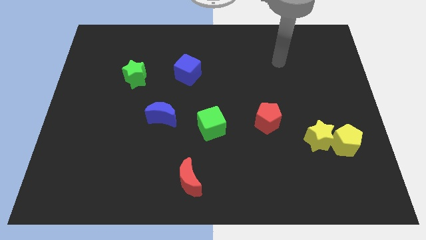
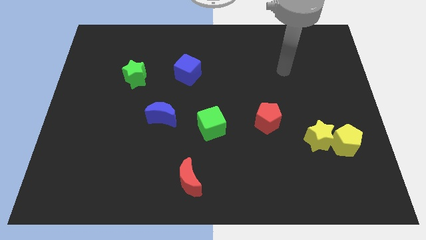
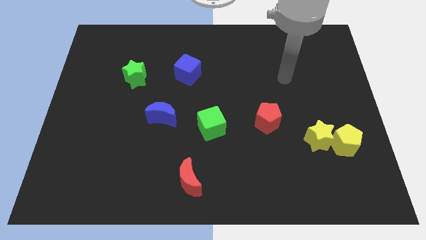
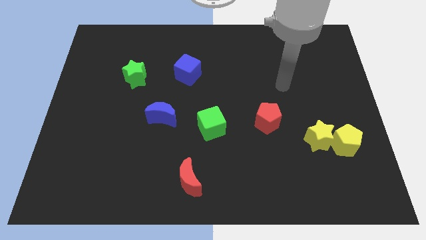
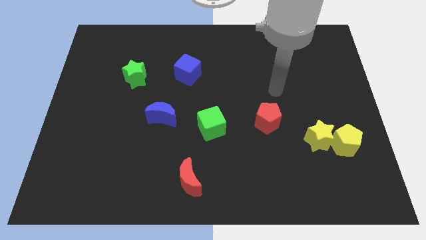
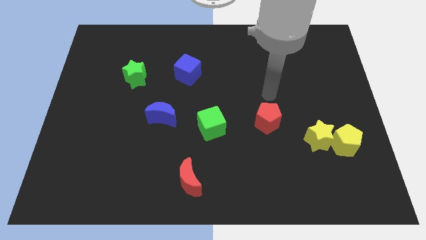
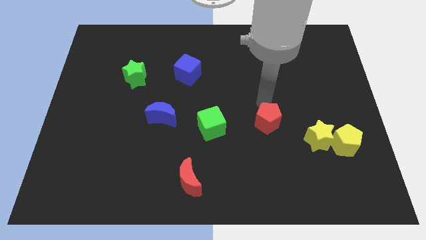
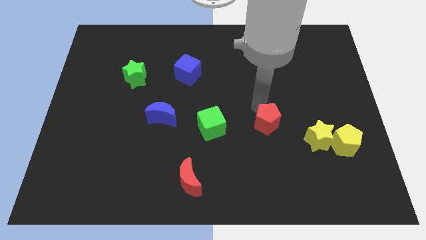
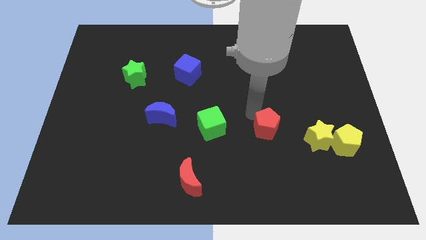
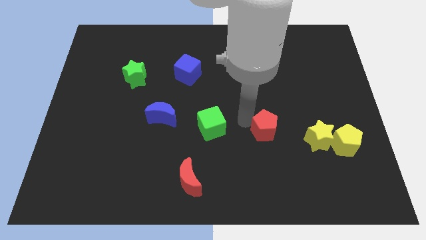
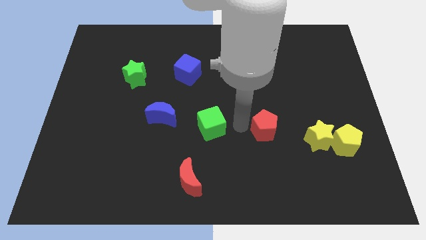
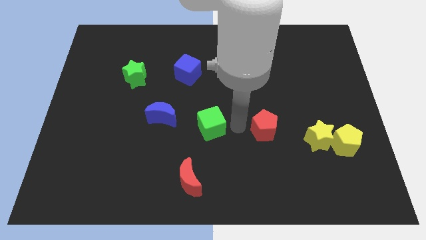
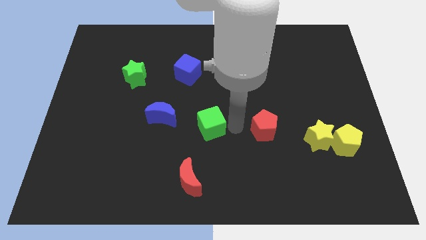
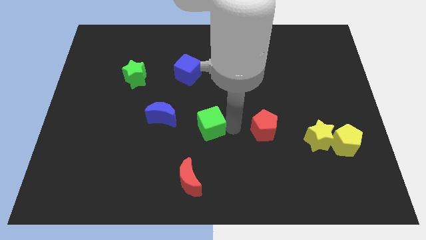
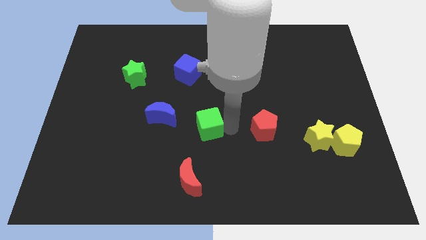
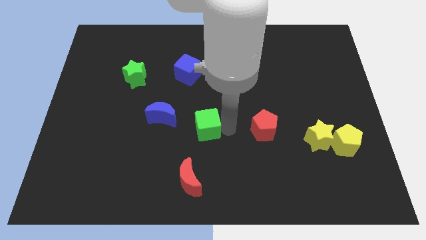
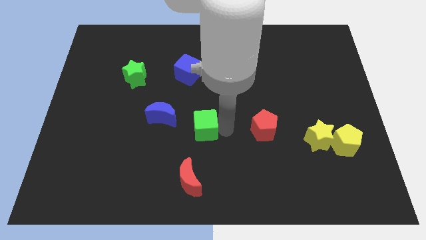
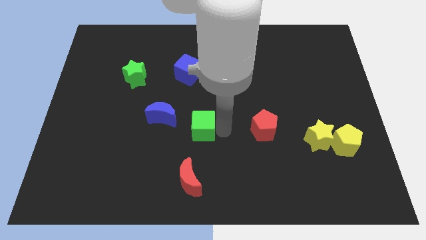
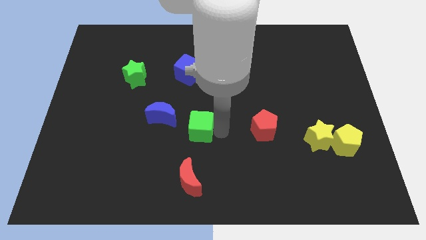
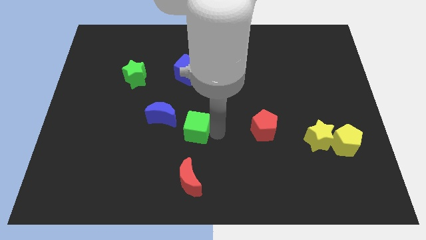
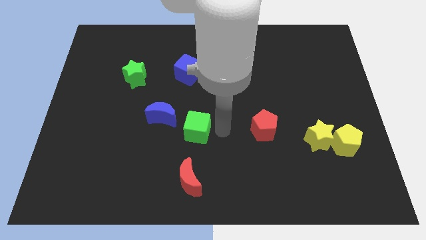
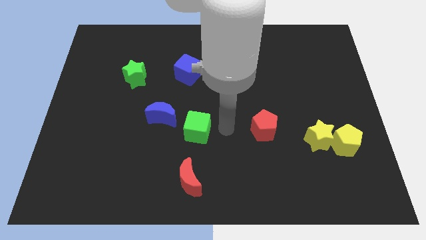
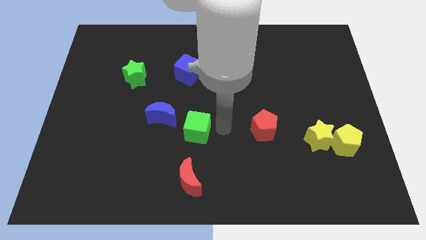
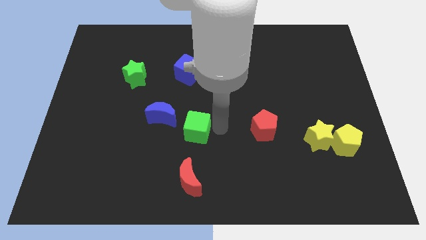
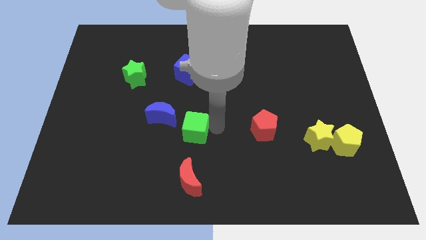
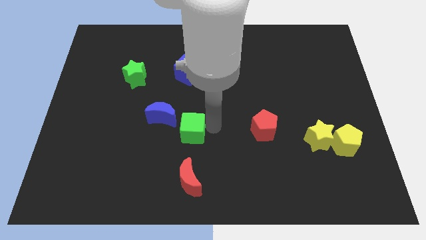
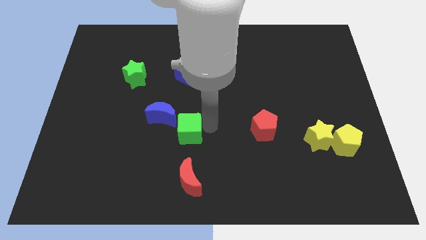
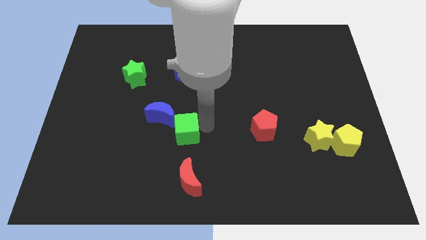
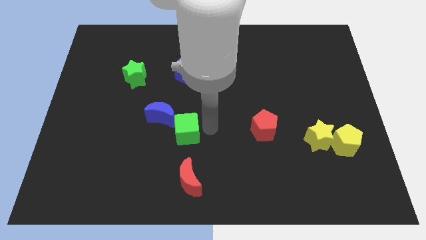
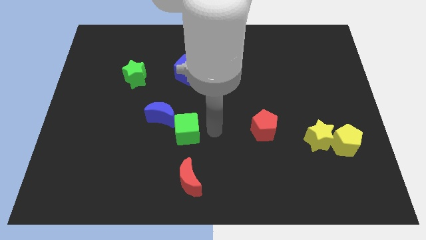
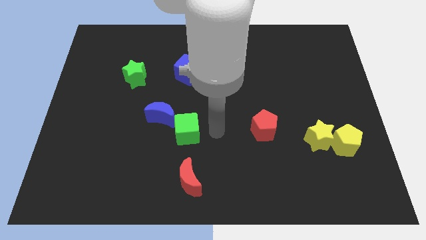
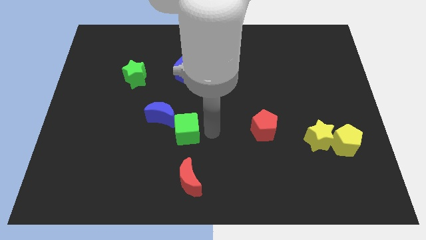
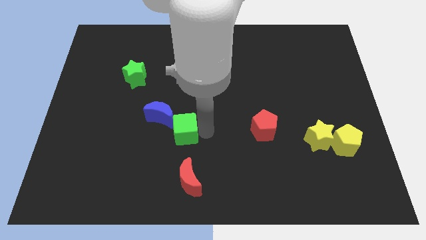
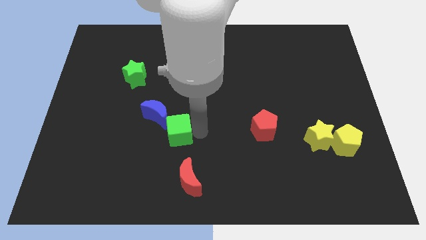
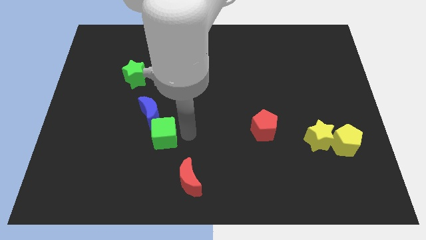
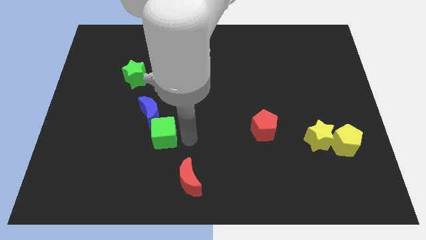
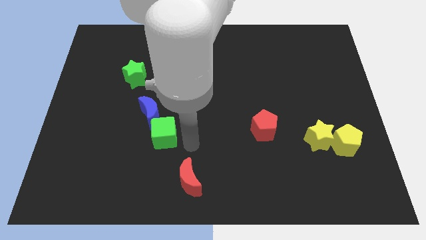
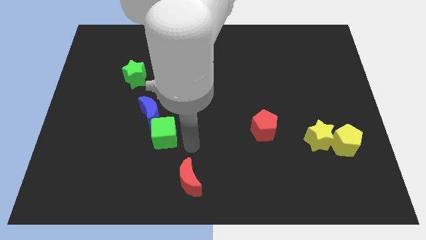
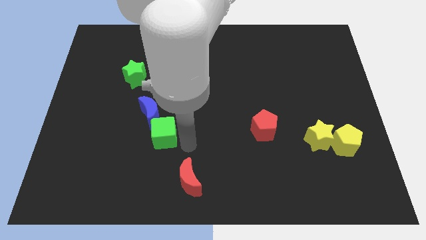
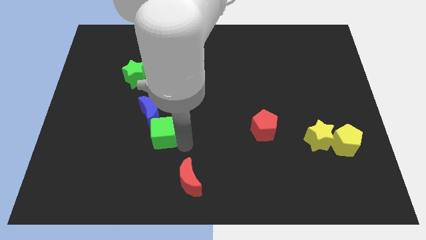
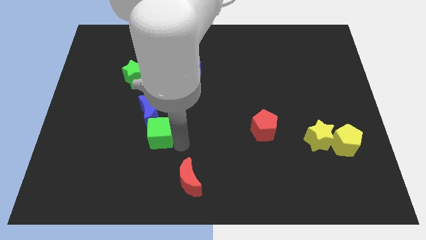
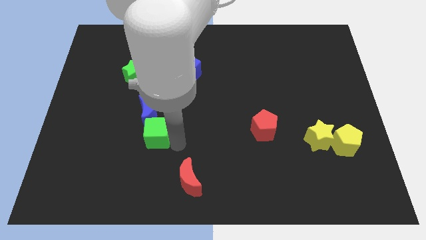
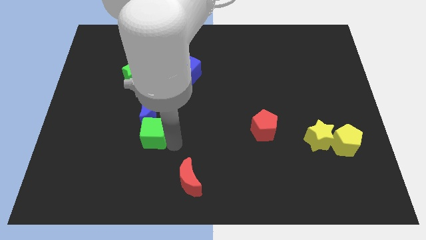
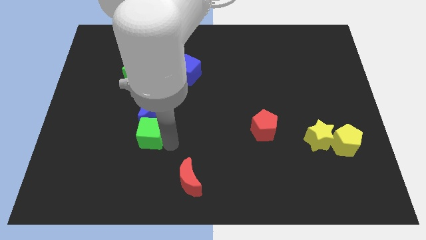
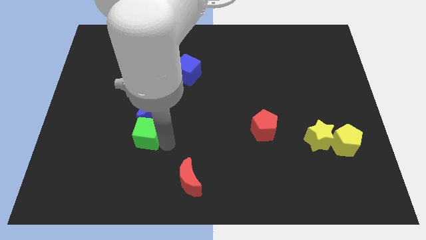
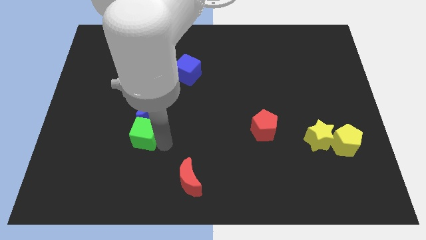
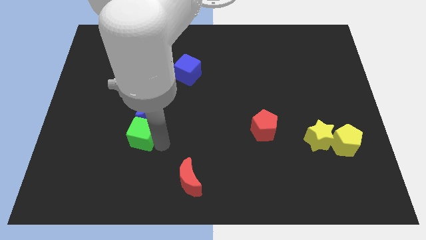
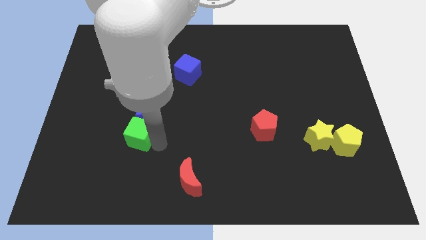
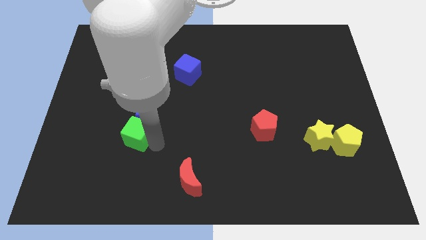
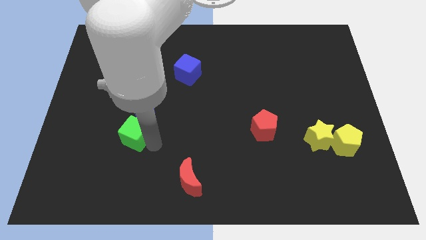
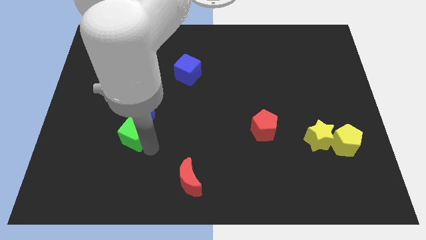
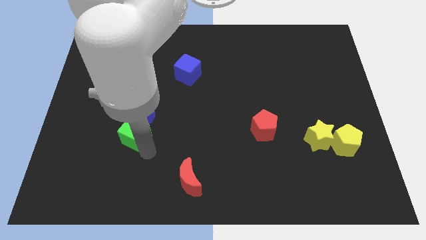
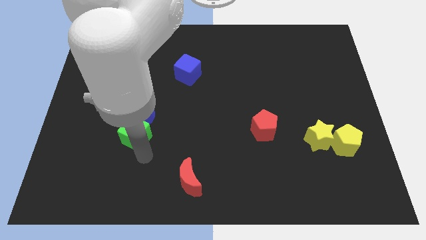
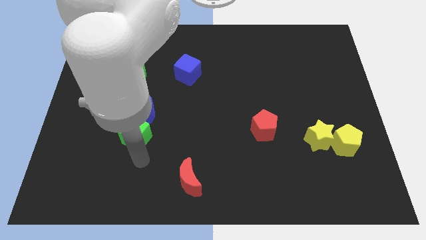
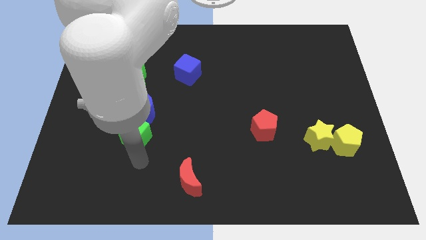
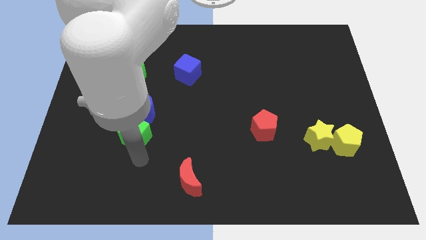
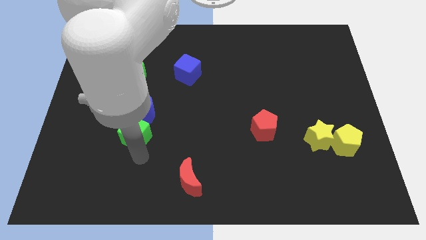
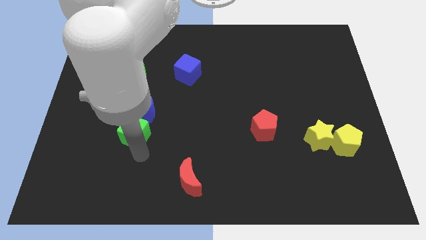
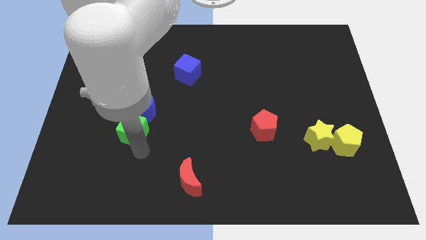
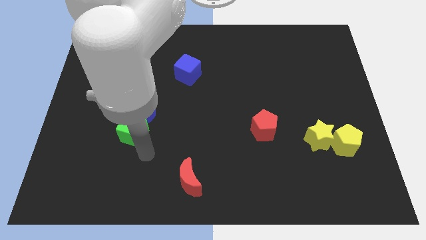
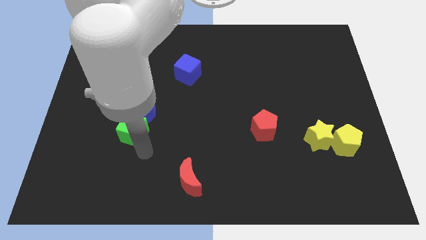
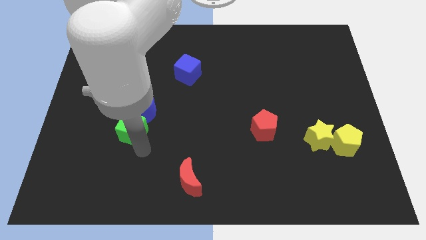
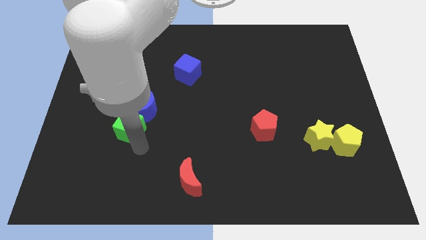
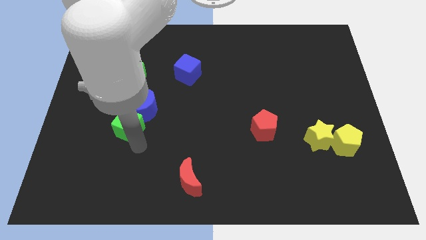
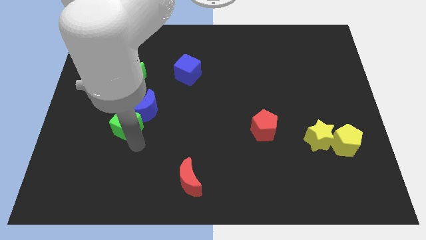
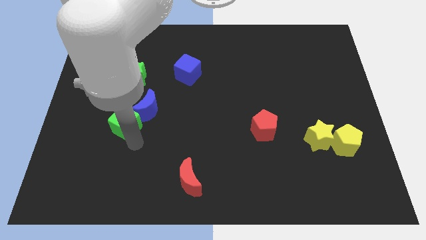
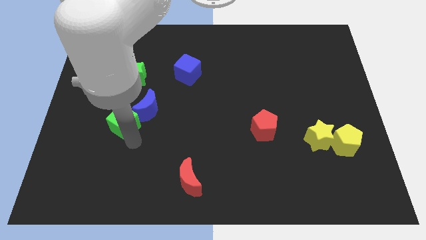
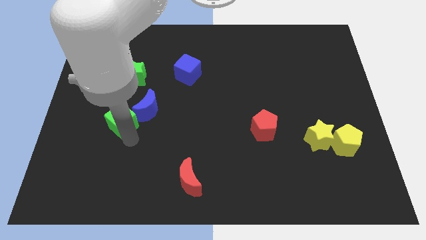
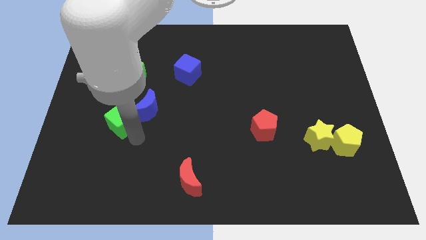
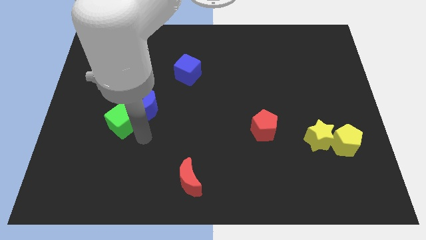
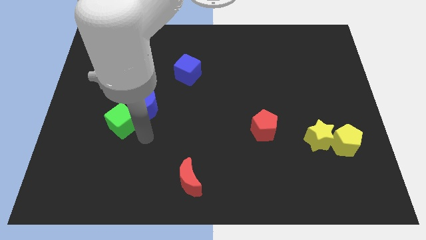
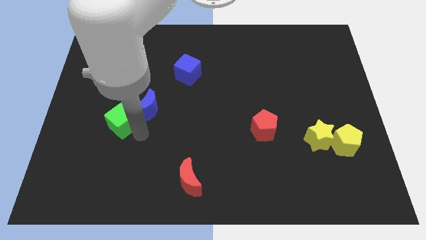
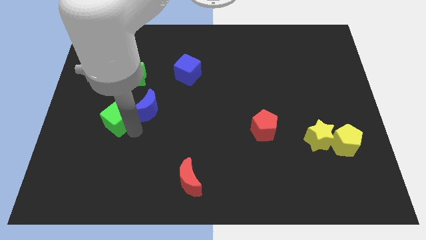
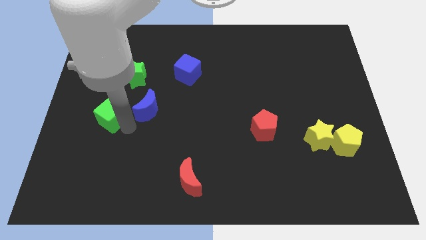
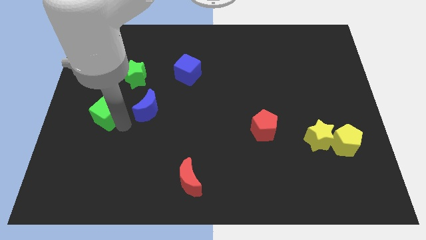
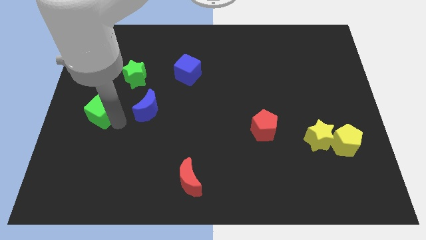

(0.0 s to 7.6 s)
slide the green cube to the left side
